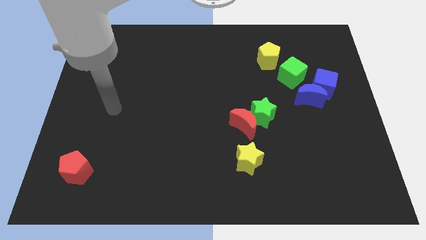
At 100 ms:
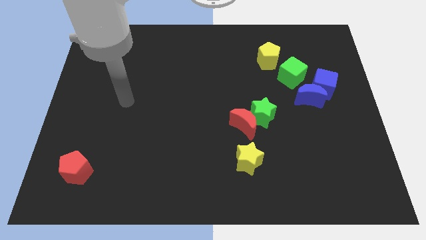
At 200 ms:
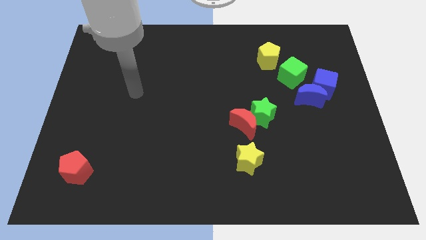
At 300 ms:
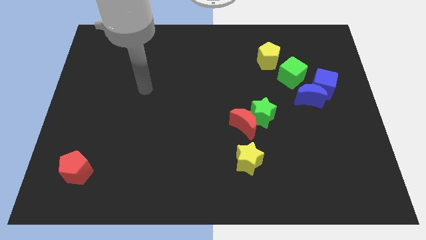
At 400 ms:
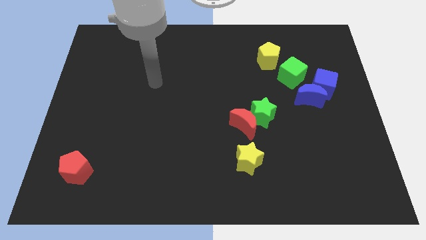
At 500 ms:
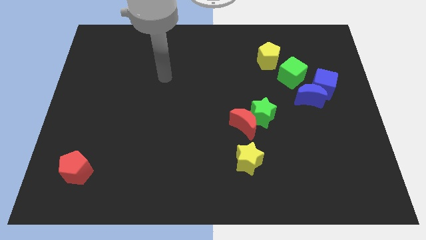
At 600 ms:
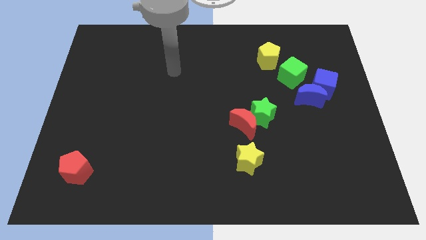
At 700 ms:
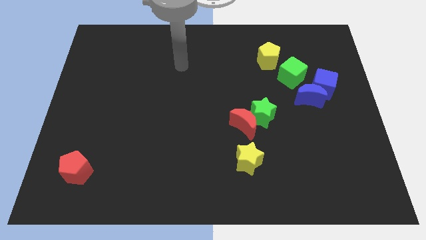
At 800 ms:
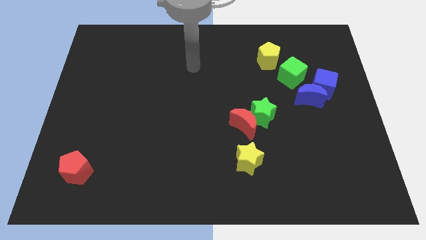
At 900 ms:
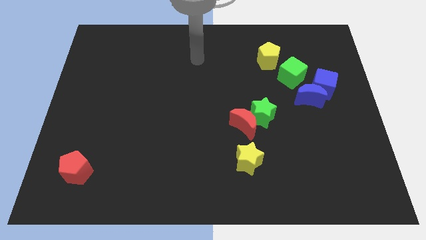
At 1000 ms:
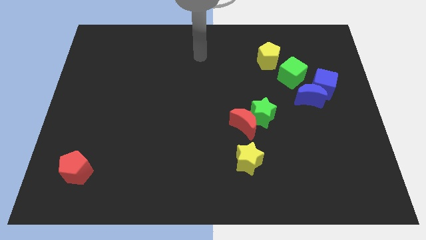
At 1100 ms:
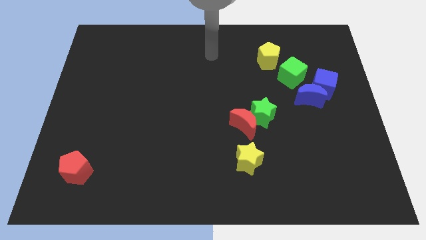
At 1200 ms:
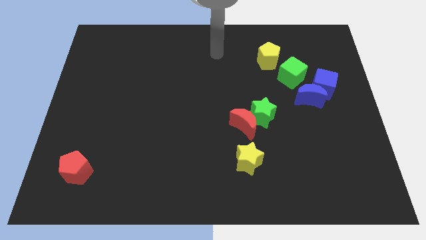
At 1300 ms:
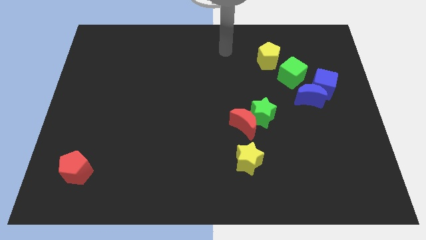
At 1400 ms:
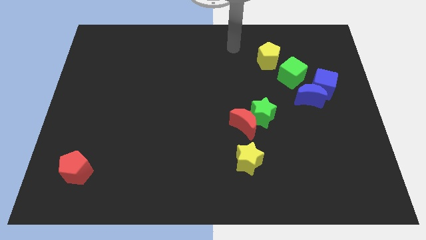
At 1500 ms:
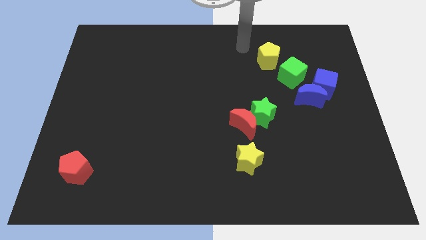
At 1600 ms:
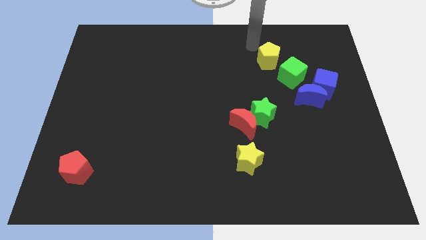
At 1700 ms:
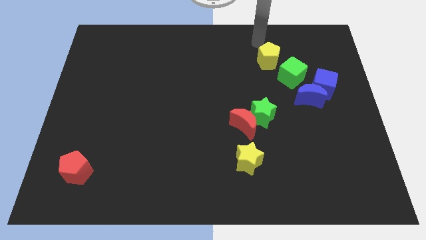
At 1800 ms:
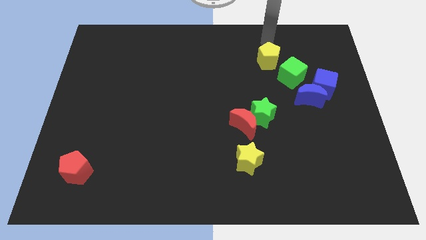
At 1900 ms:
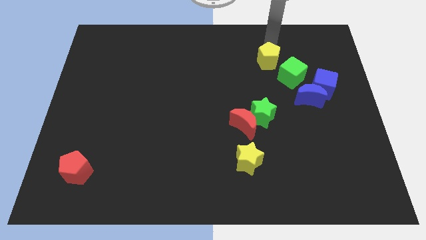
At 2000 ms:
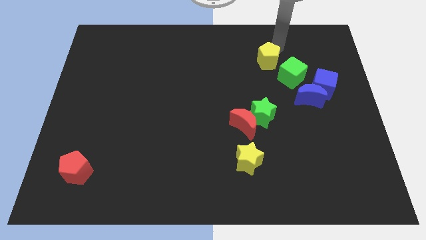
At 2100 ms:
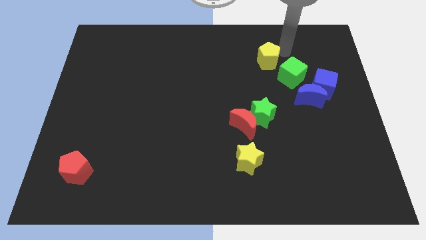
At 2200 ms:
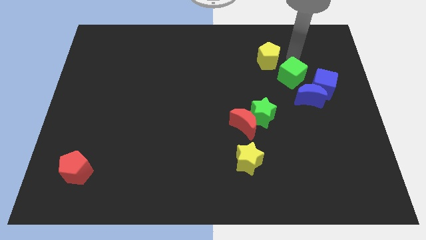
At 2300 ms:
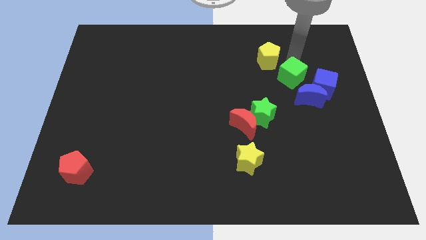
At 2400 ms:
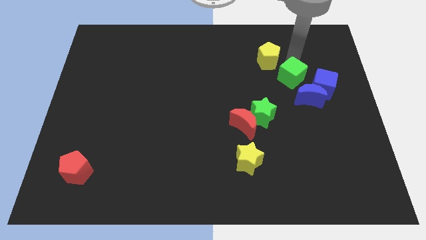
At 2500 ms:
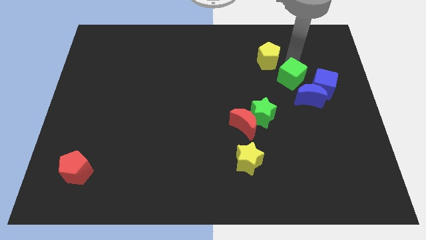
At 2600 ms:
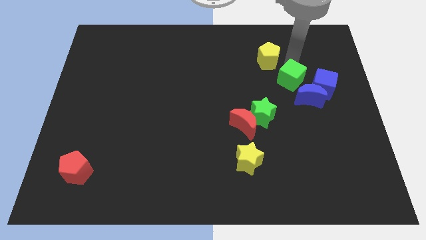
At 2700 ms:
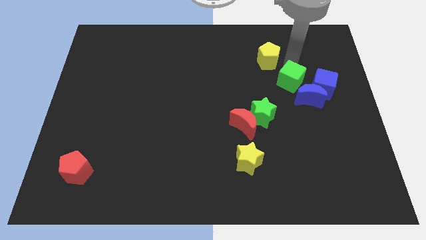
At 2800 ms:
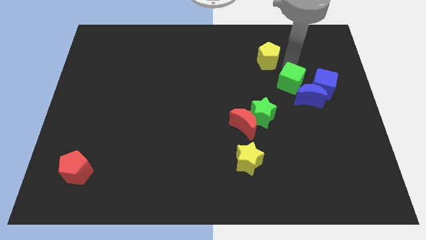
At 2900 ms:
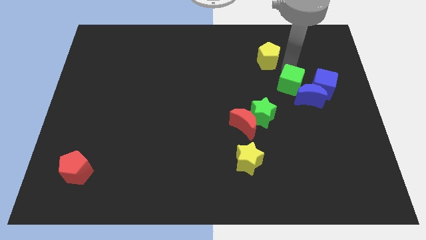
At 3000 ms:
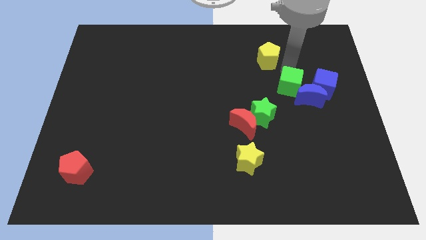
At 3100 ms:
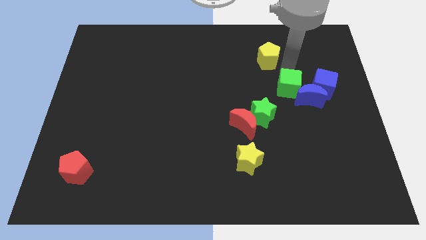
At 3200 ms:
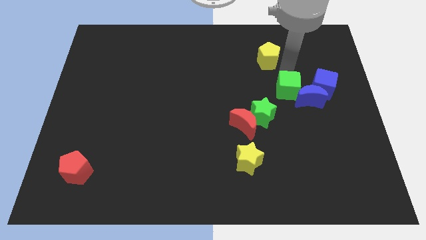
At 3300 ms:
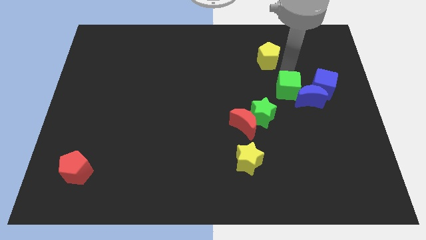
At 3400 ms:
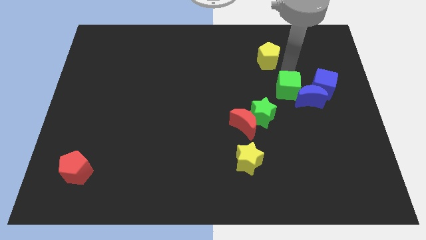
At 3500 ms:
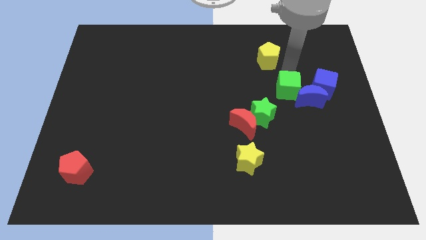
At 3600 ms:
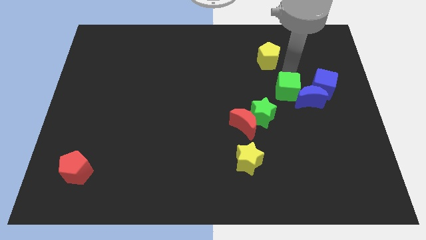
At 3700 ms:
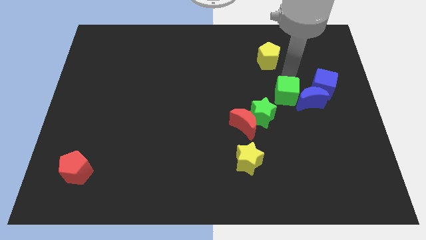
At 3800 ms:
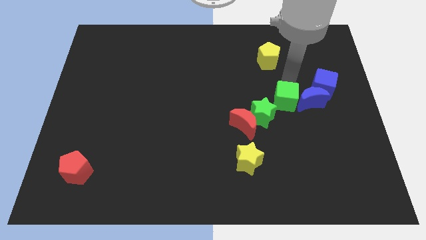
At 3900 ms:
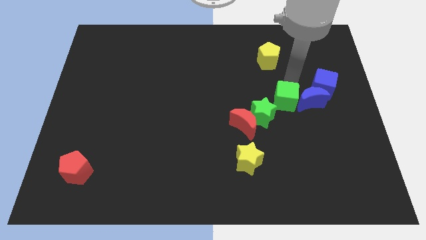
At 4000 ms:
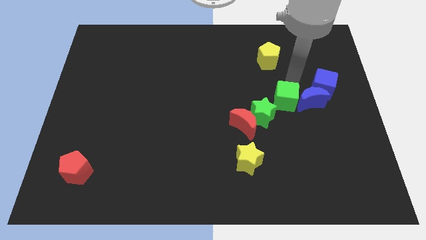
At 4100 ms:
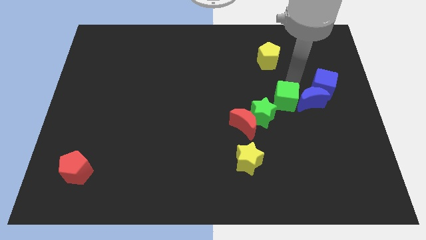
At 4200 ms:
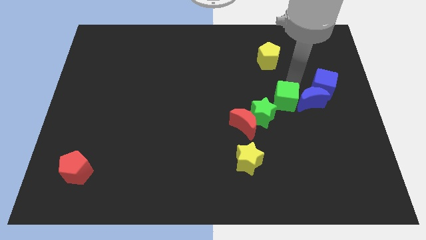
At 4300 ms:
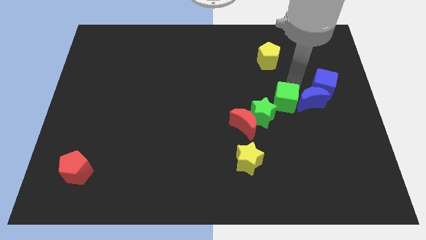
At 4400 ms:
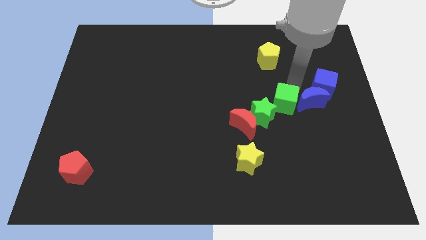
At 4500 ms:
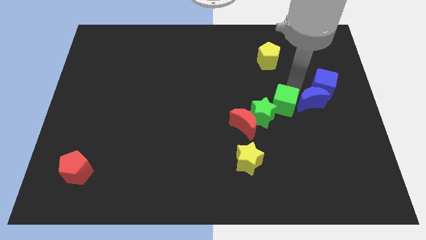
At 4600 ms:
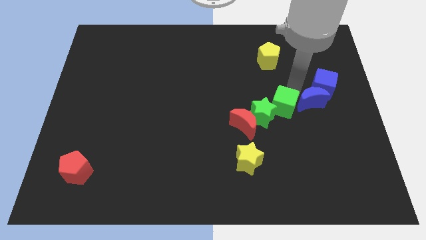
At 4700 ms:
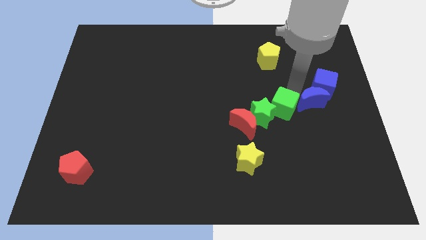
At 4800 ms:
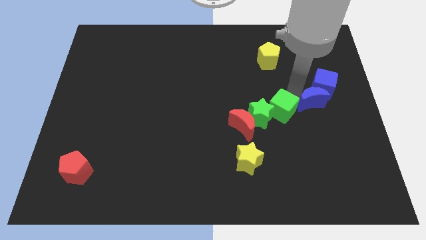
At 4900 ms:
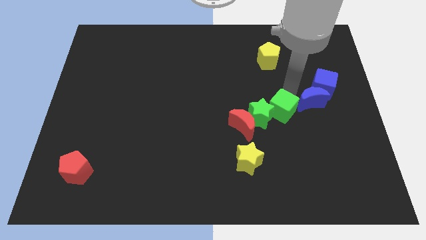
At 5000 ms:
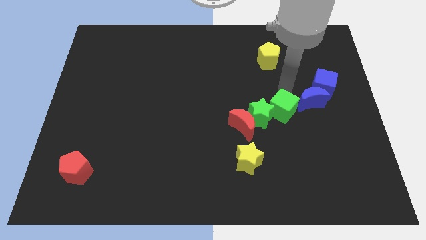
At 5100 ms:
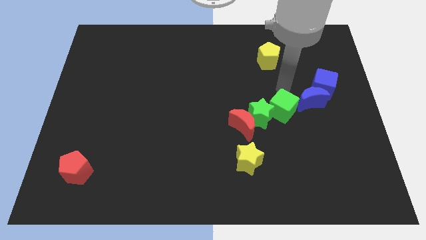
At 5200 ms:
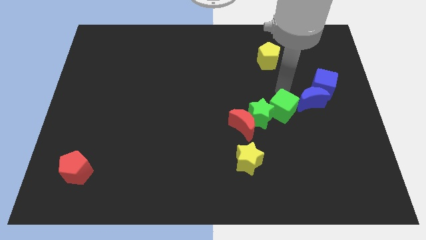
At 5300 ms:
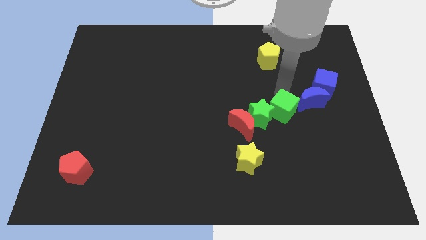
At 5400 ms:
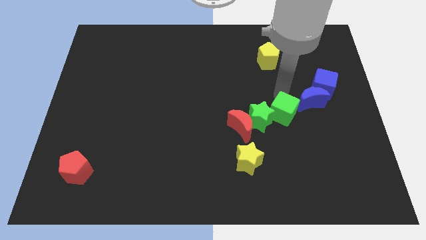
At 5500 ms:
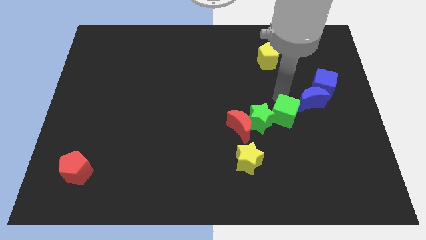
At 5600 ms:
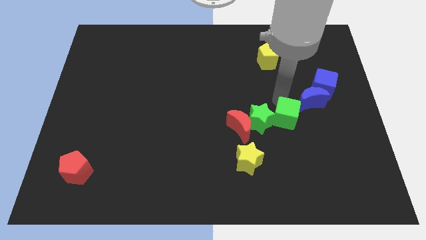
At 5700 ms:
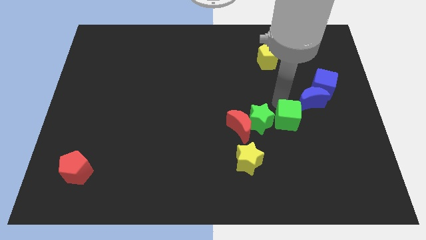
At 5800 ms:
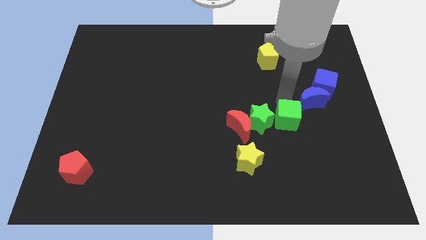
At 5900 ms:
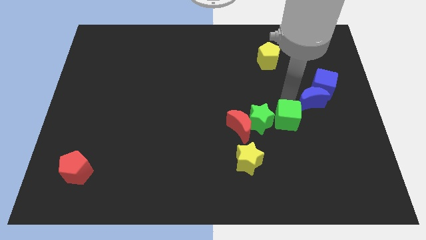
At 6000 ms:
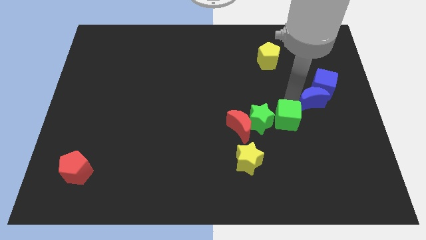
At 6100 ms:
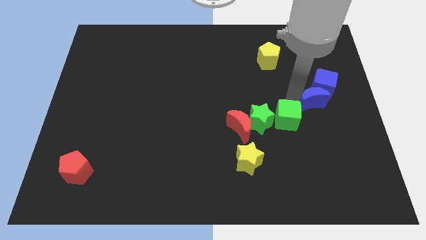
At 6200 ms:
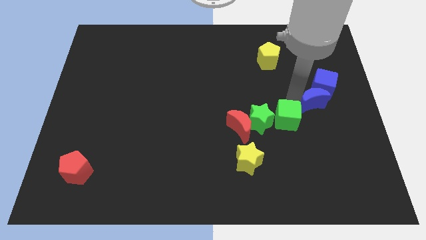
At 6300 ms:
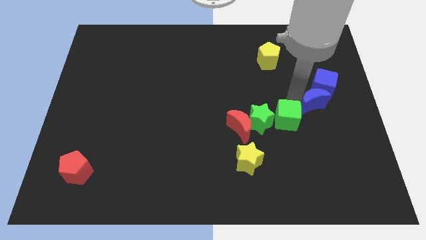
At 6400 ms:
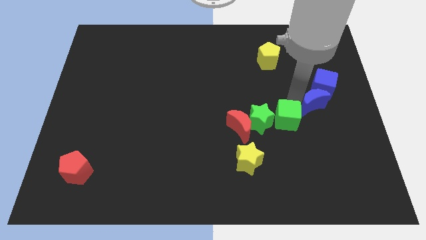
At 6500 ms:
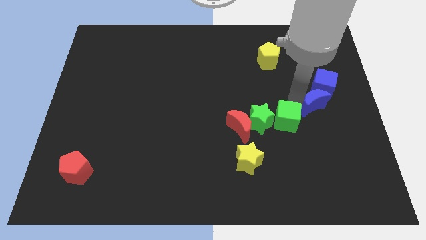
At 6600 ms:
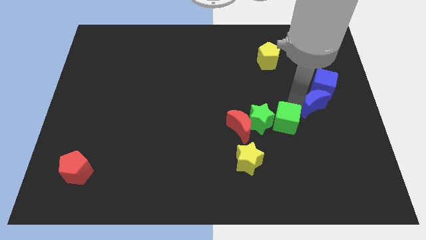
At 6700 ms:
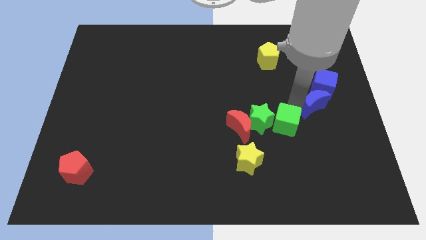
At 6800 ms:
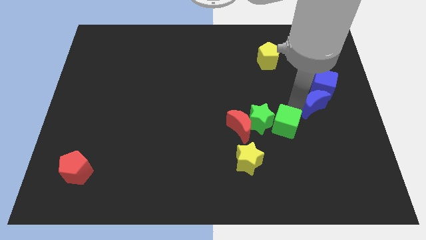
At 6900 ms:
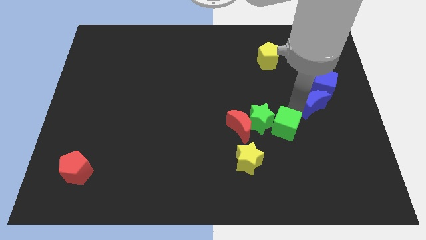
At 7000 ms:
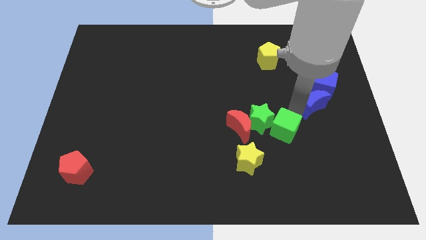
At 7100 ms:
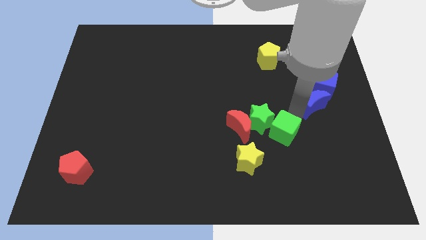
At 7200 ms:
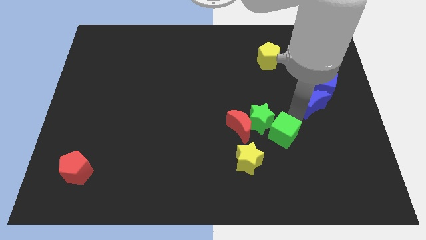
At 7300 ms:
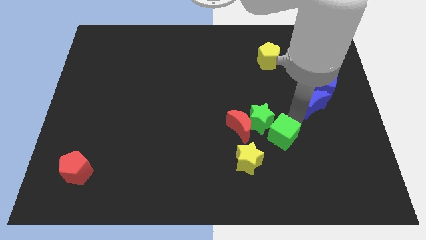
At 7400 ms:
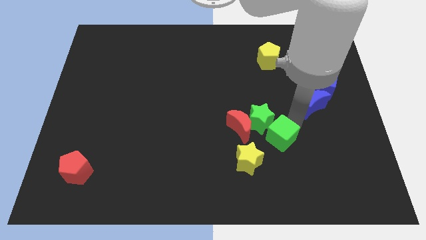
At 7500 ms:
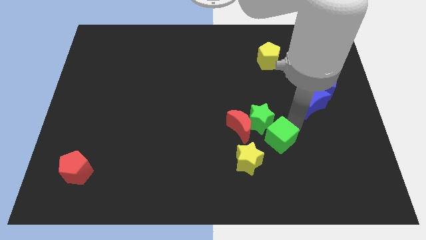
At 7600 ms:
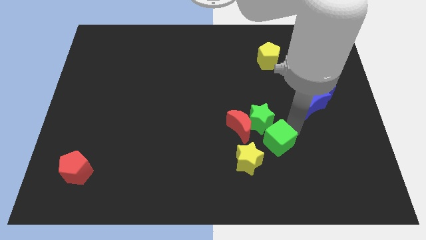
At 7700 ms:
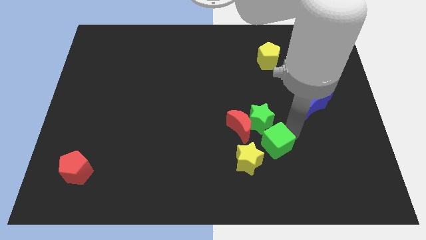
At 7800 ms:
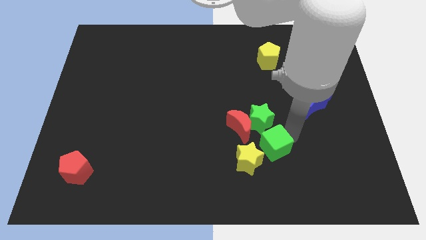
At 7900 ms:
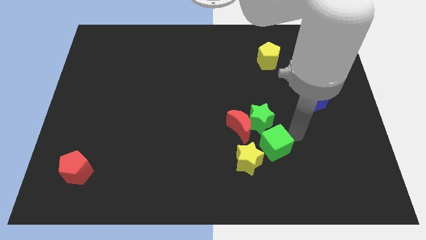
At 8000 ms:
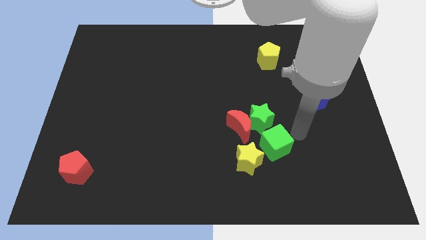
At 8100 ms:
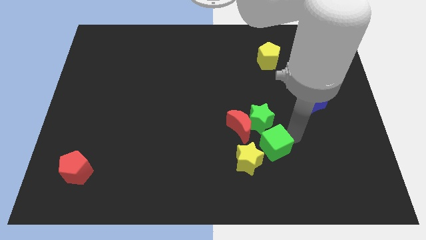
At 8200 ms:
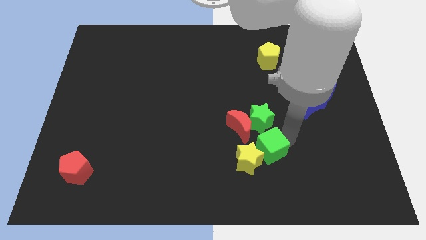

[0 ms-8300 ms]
slide the green cube next to the yellow star
